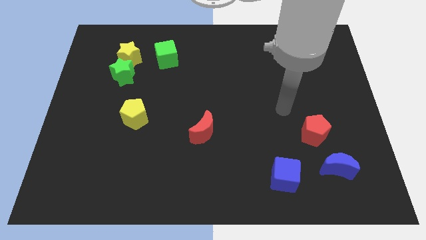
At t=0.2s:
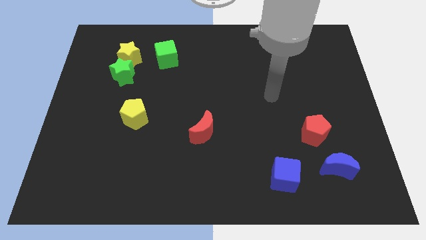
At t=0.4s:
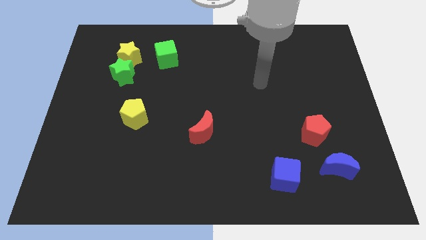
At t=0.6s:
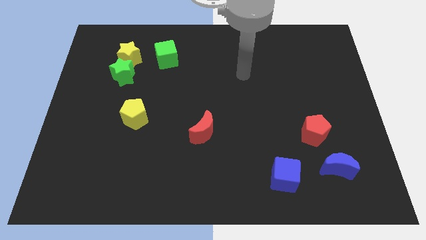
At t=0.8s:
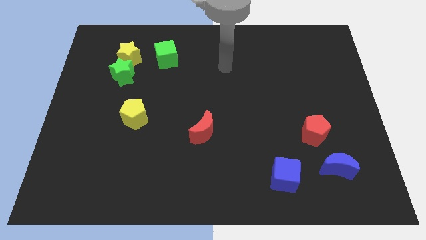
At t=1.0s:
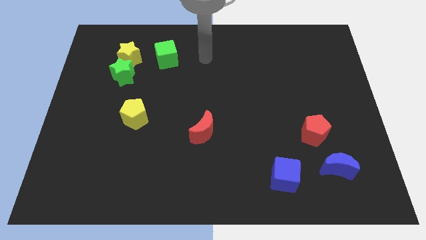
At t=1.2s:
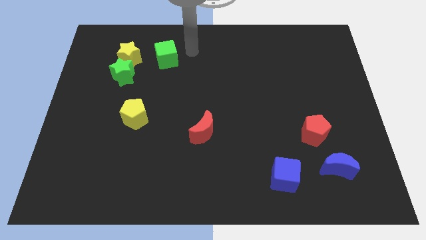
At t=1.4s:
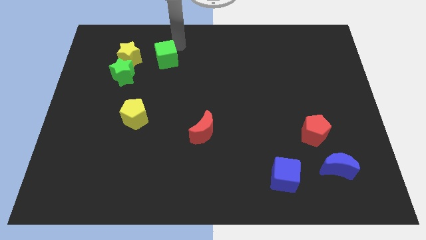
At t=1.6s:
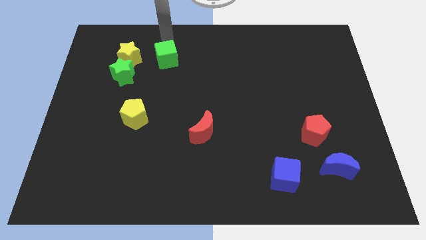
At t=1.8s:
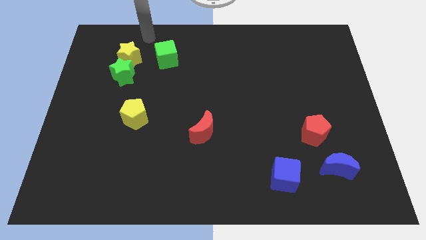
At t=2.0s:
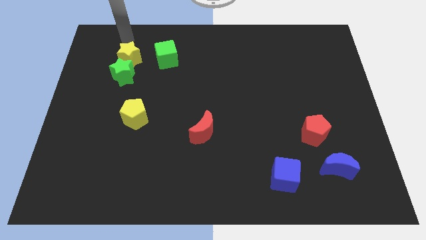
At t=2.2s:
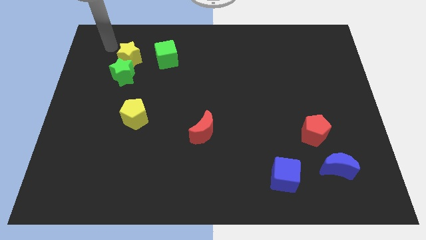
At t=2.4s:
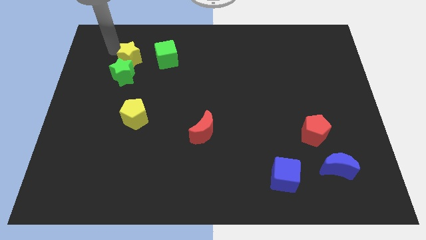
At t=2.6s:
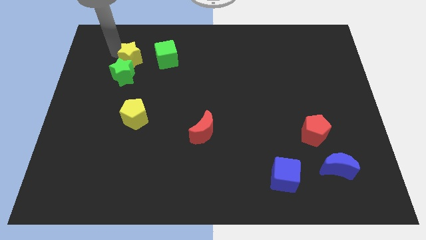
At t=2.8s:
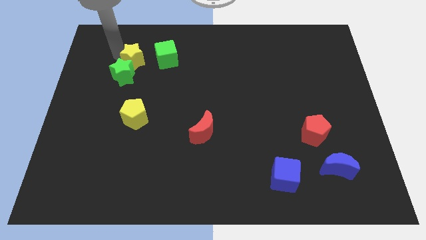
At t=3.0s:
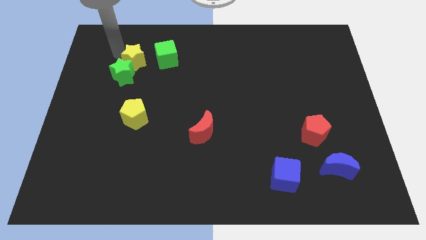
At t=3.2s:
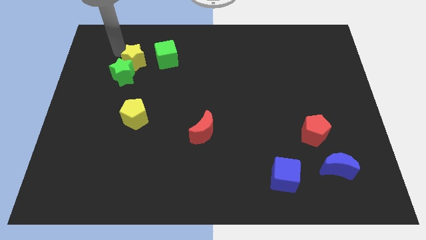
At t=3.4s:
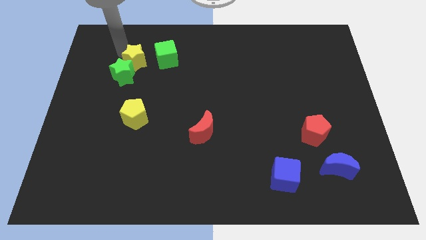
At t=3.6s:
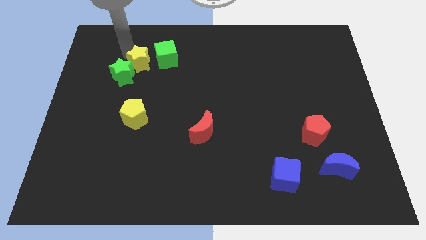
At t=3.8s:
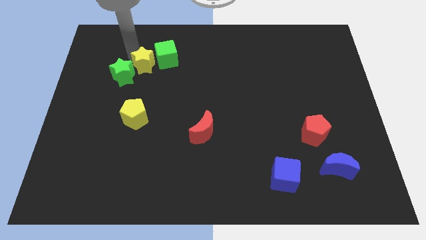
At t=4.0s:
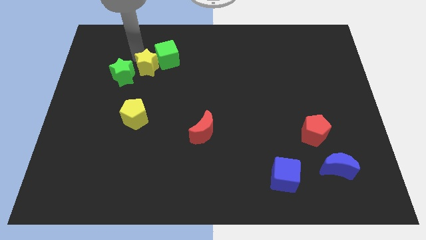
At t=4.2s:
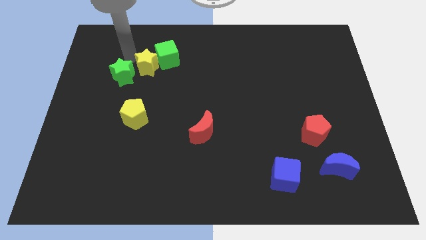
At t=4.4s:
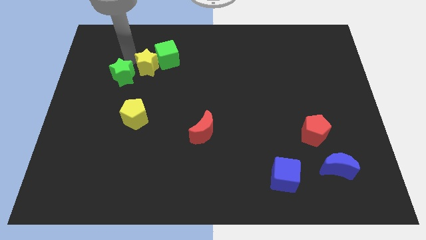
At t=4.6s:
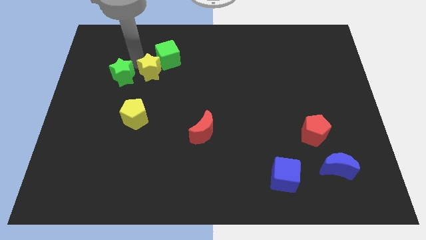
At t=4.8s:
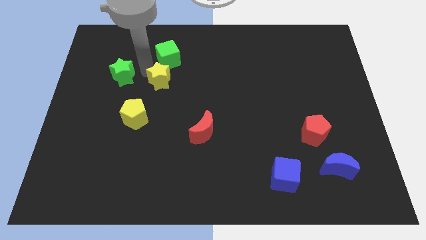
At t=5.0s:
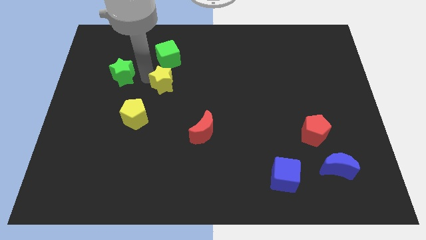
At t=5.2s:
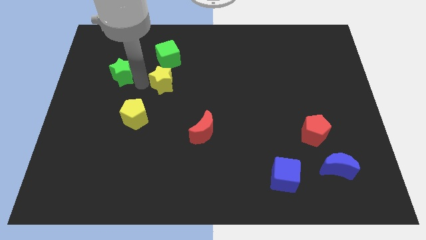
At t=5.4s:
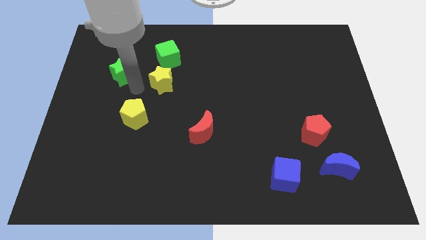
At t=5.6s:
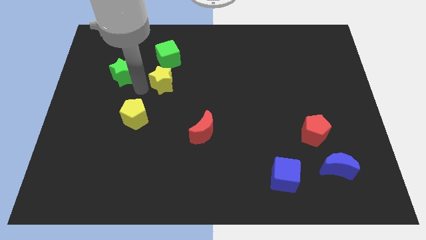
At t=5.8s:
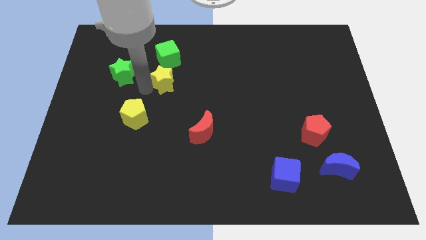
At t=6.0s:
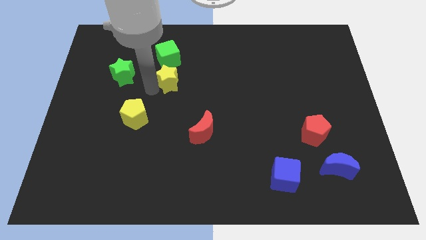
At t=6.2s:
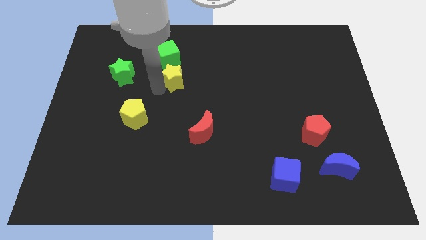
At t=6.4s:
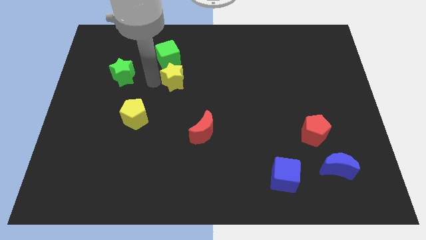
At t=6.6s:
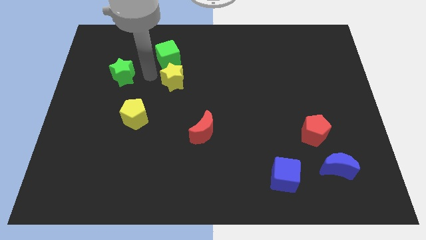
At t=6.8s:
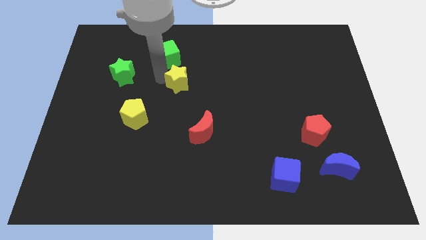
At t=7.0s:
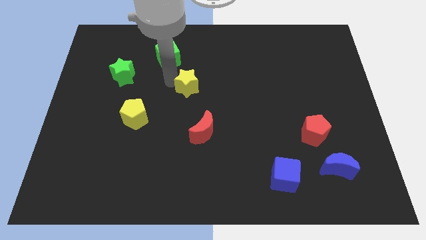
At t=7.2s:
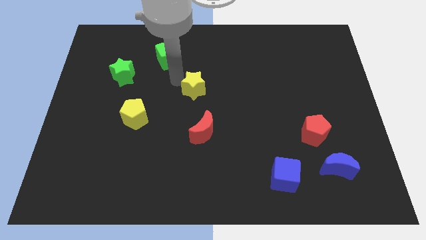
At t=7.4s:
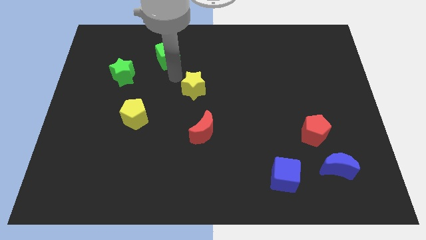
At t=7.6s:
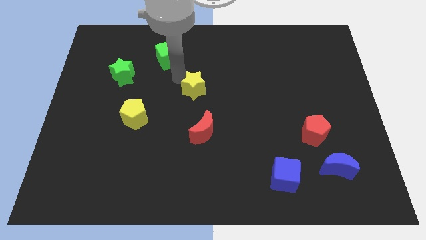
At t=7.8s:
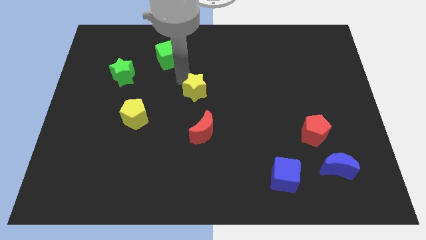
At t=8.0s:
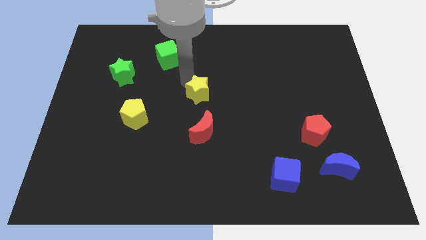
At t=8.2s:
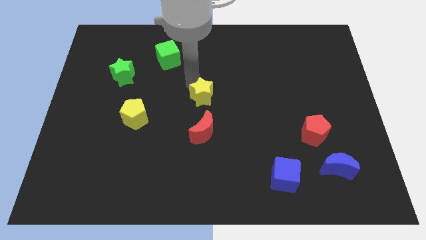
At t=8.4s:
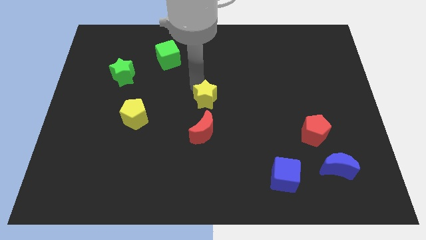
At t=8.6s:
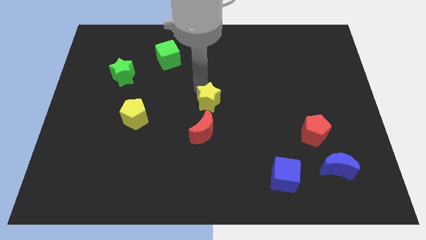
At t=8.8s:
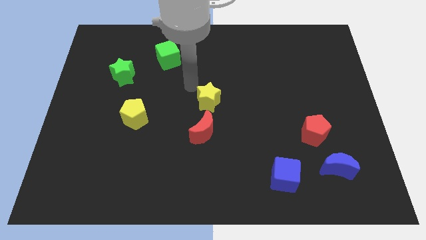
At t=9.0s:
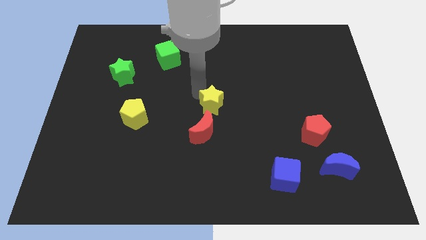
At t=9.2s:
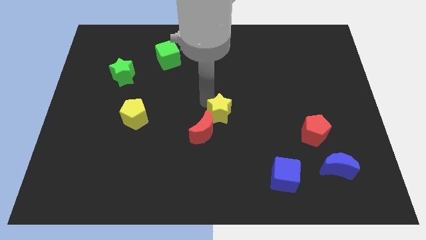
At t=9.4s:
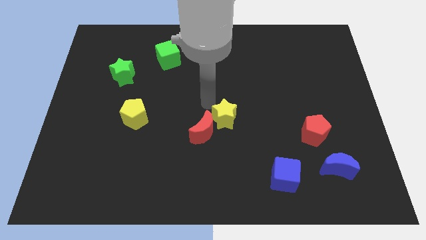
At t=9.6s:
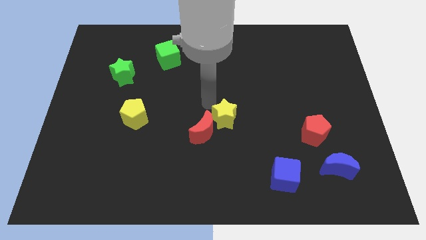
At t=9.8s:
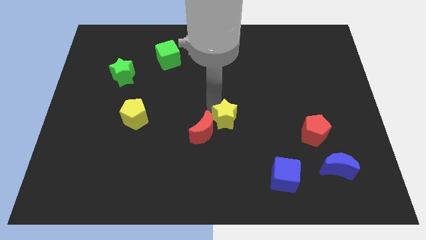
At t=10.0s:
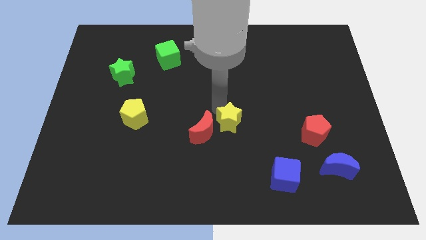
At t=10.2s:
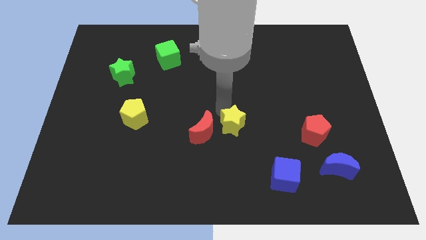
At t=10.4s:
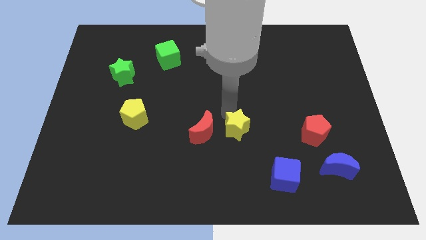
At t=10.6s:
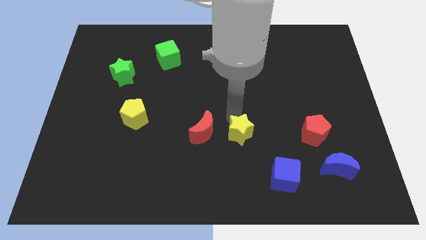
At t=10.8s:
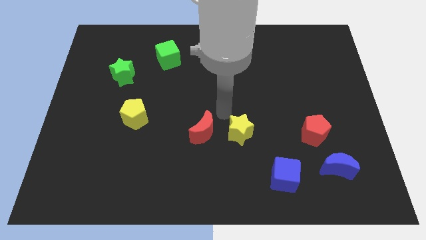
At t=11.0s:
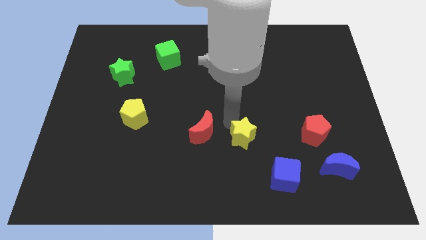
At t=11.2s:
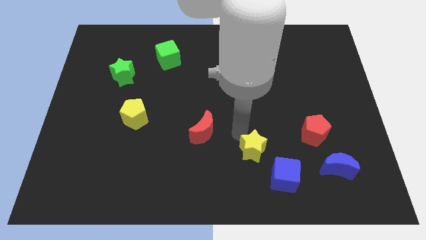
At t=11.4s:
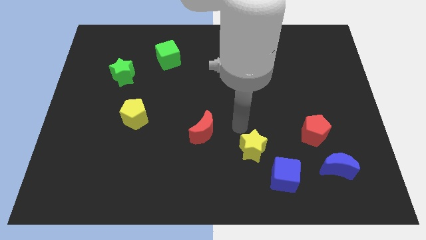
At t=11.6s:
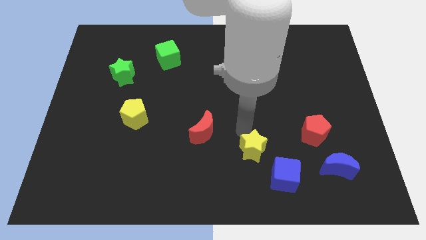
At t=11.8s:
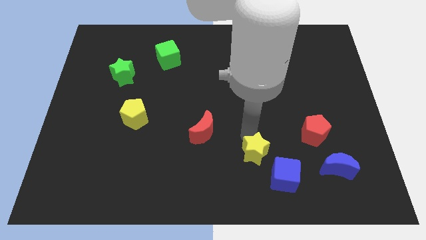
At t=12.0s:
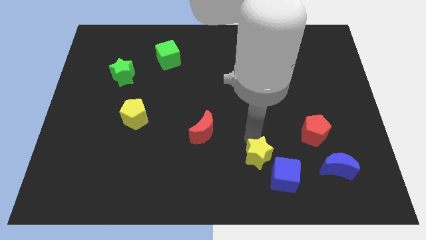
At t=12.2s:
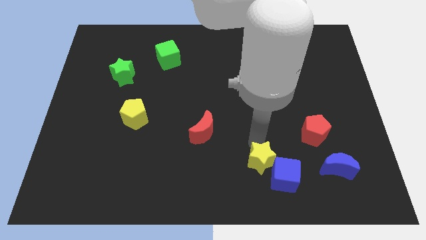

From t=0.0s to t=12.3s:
push the yellow star to the blue cube

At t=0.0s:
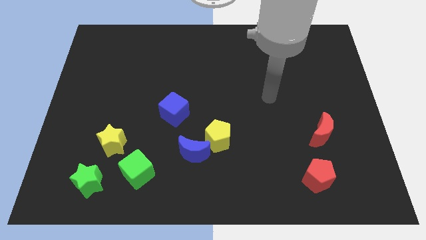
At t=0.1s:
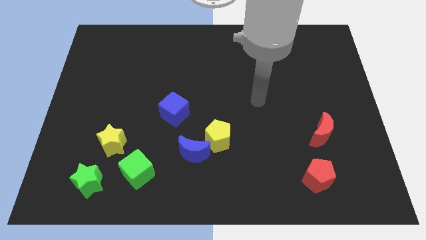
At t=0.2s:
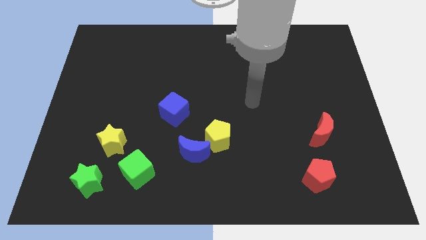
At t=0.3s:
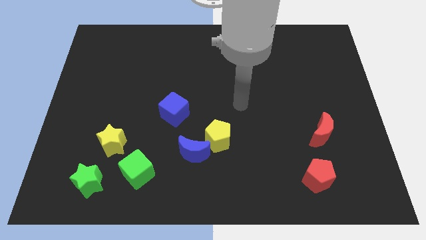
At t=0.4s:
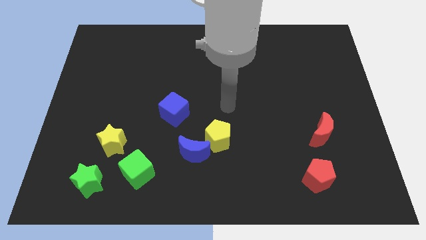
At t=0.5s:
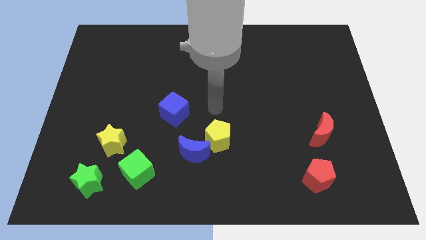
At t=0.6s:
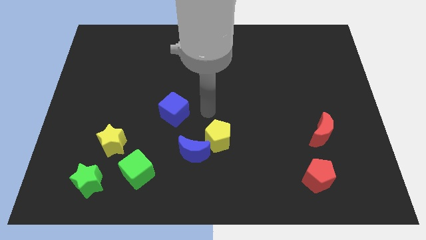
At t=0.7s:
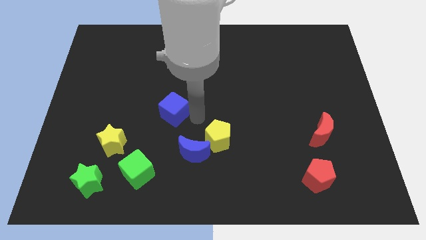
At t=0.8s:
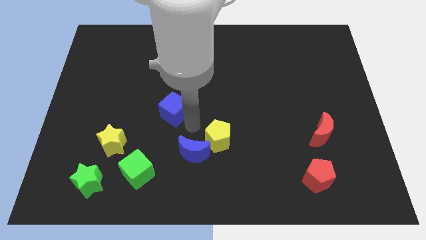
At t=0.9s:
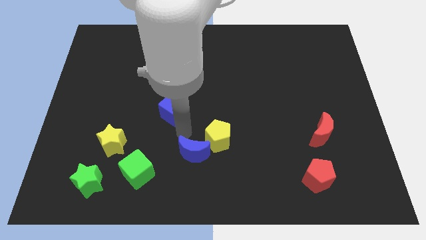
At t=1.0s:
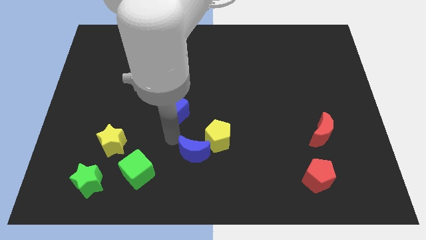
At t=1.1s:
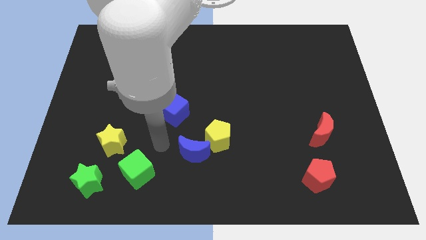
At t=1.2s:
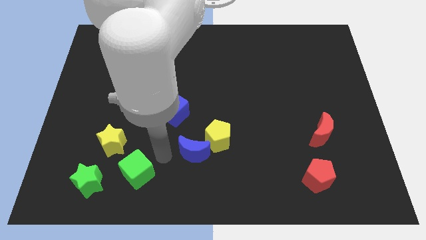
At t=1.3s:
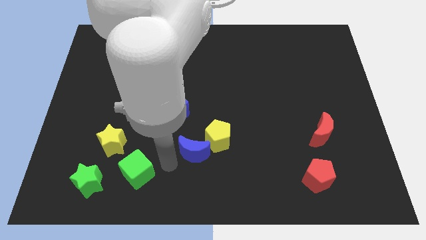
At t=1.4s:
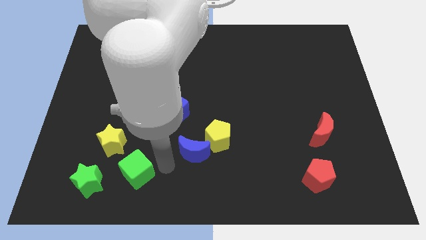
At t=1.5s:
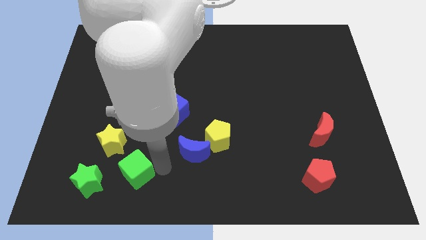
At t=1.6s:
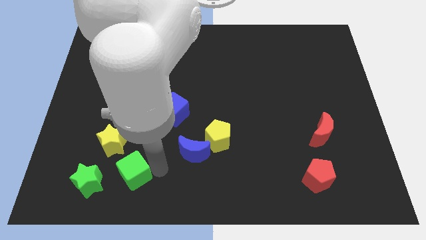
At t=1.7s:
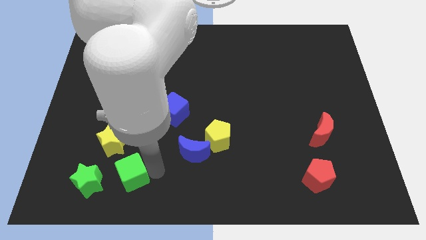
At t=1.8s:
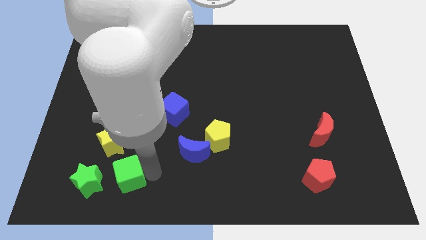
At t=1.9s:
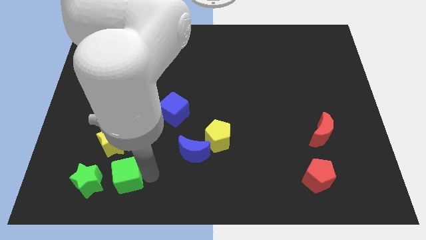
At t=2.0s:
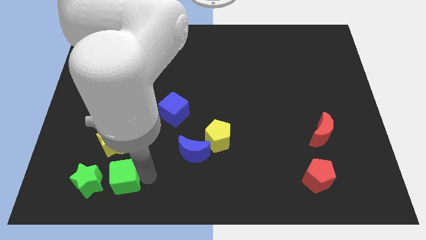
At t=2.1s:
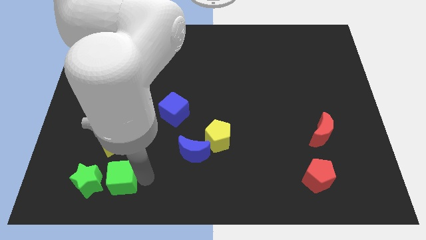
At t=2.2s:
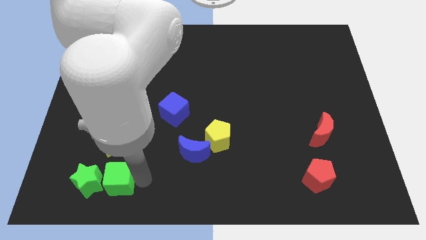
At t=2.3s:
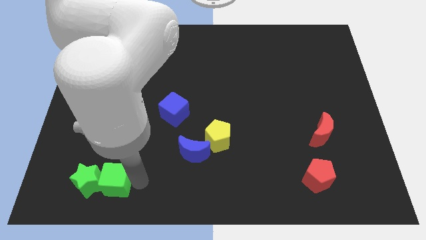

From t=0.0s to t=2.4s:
move the green cube to the green star
